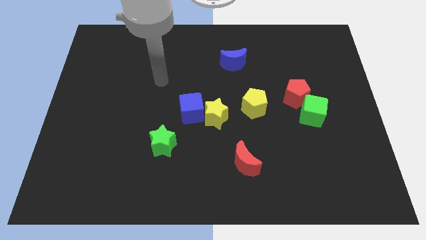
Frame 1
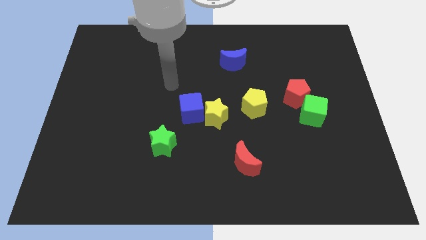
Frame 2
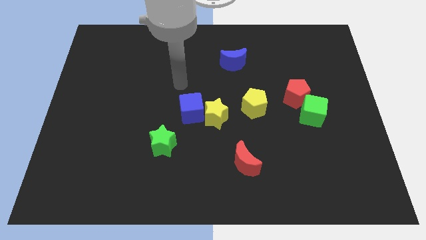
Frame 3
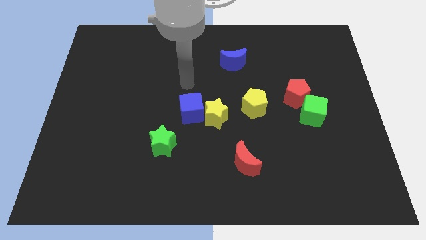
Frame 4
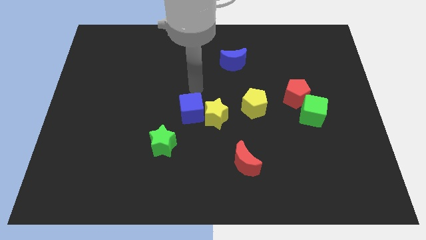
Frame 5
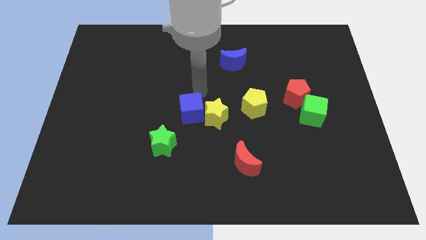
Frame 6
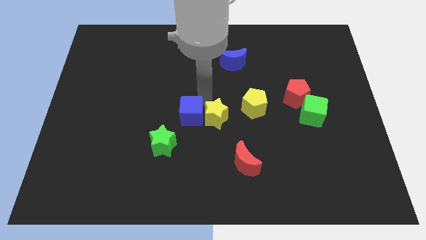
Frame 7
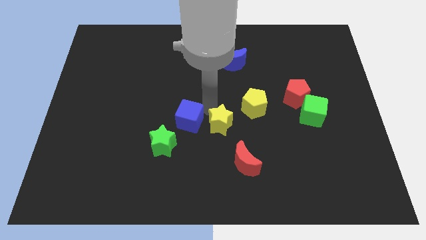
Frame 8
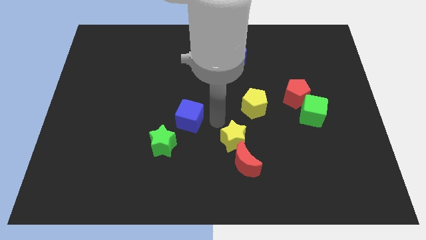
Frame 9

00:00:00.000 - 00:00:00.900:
separate the blue cube from the yellow star

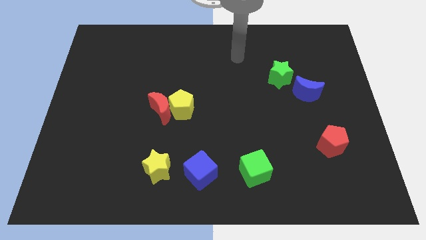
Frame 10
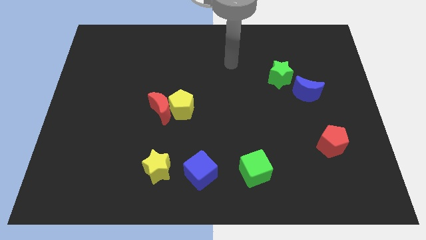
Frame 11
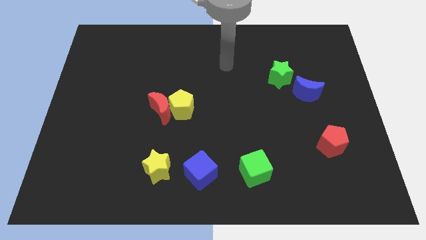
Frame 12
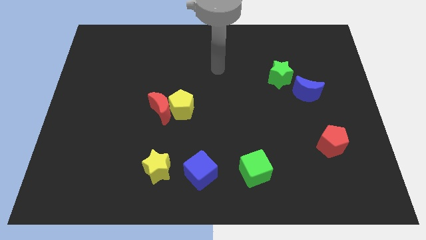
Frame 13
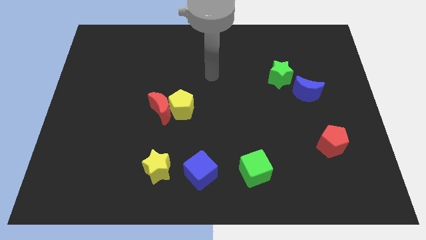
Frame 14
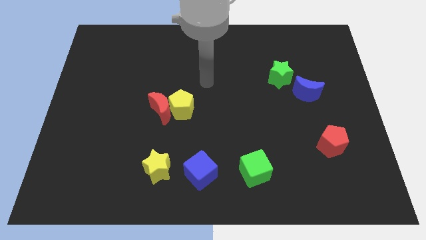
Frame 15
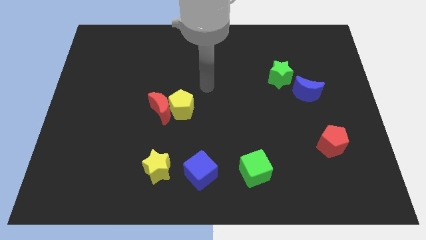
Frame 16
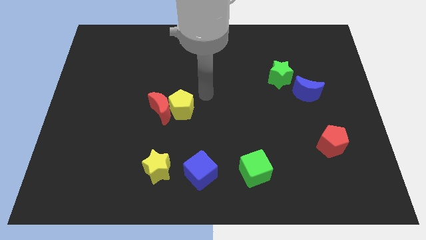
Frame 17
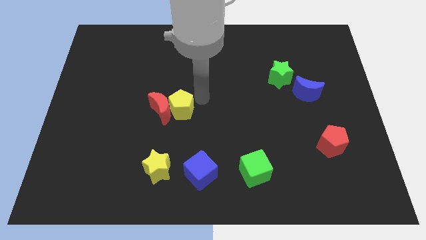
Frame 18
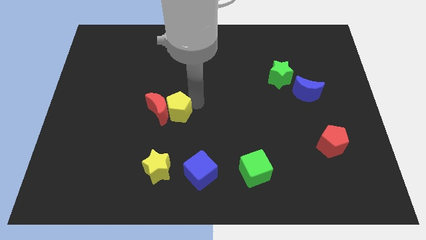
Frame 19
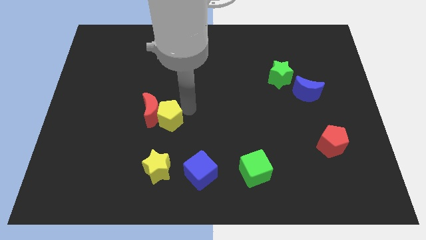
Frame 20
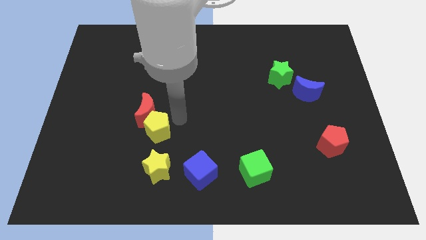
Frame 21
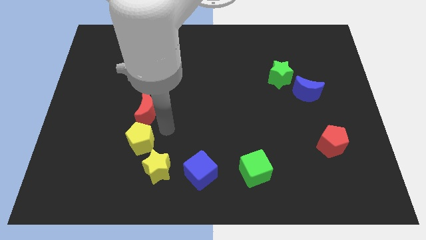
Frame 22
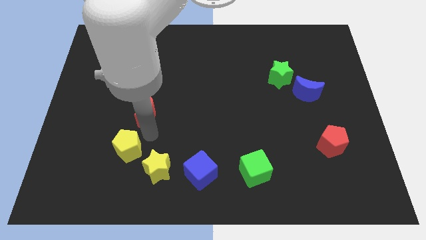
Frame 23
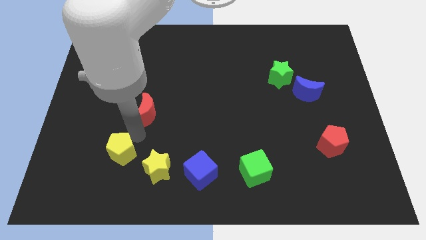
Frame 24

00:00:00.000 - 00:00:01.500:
pull the red moon apart from the yellow pentagon

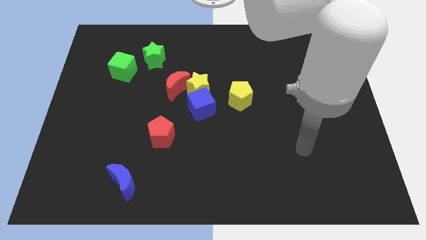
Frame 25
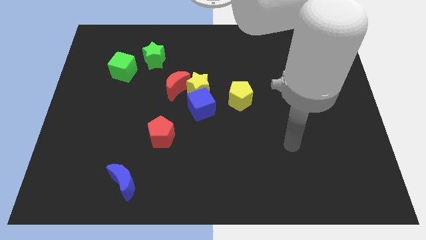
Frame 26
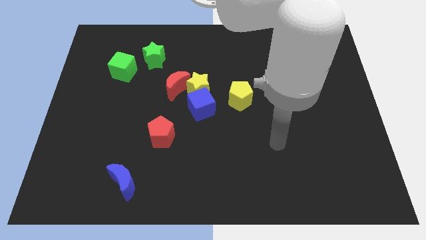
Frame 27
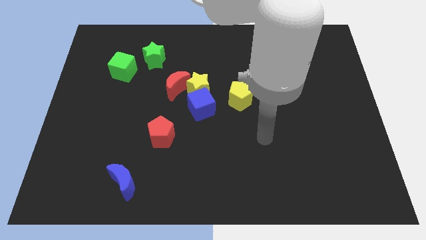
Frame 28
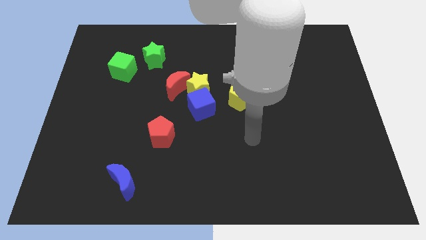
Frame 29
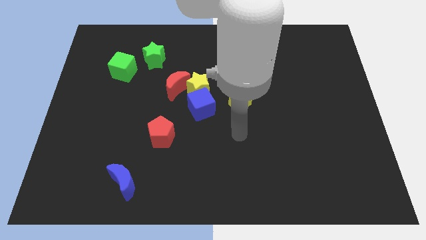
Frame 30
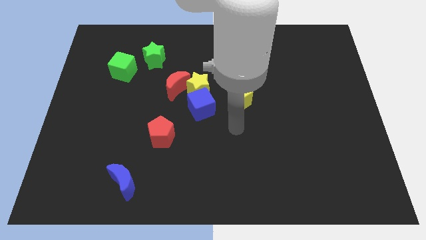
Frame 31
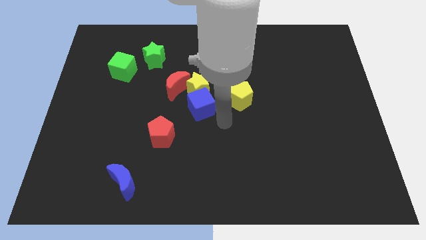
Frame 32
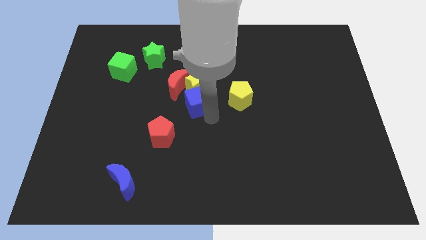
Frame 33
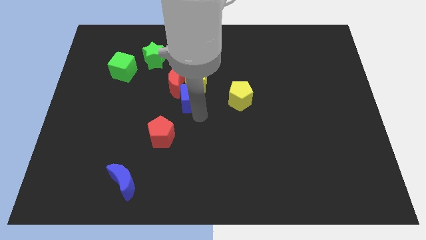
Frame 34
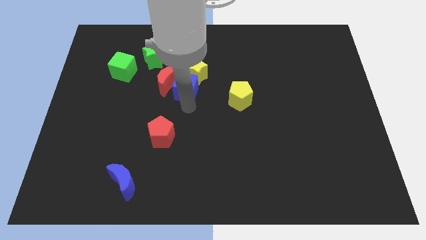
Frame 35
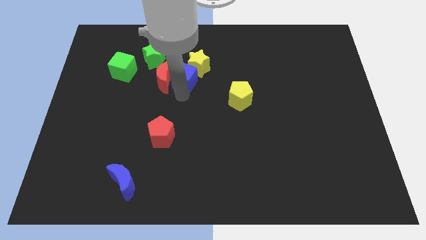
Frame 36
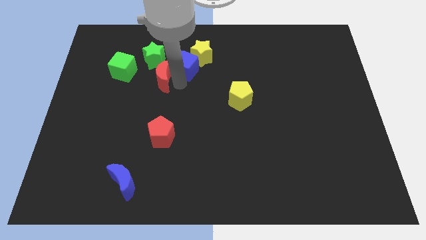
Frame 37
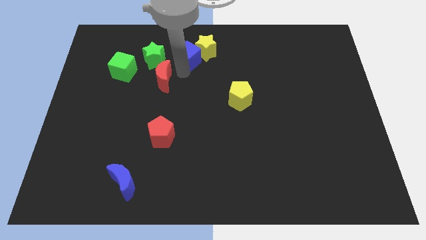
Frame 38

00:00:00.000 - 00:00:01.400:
separate the yellow star from the red moon and blue cube

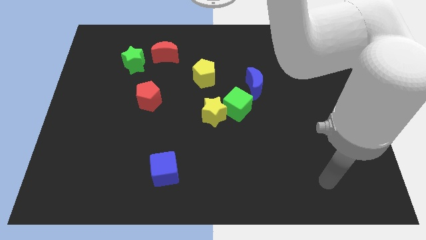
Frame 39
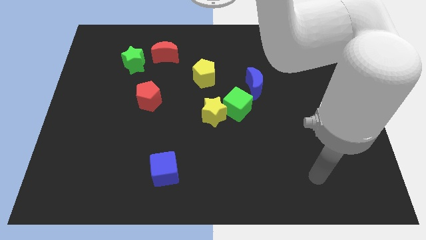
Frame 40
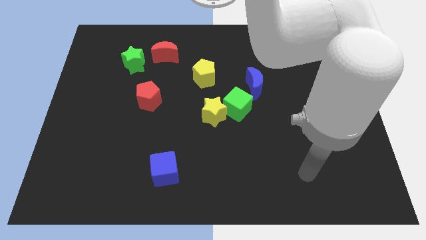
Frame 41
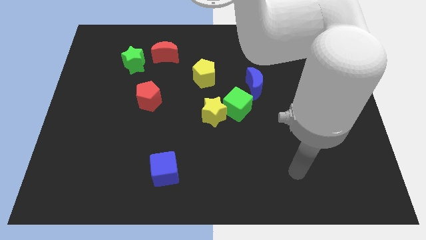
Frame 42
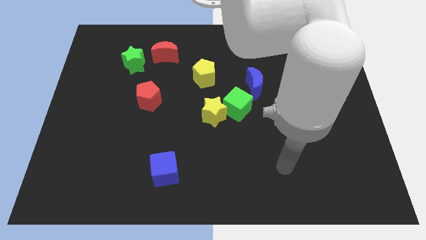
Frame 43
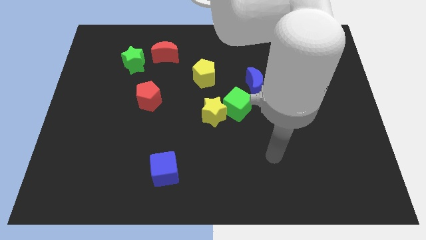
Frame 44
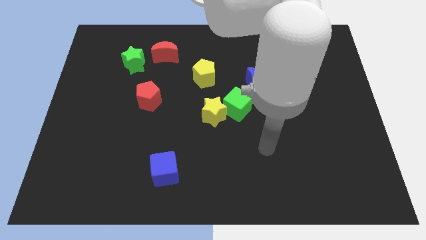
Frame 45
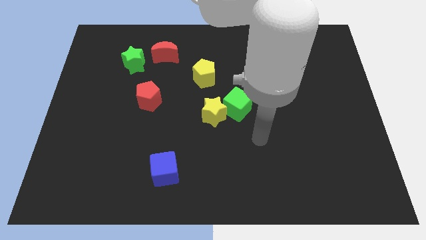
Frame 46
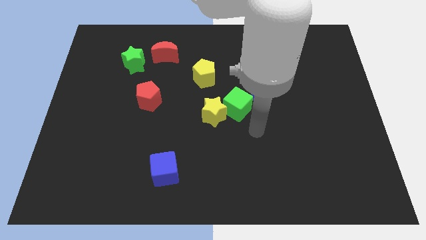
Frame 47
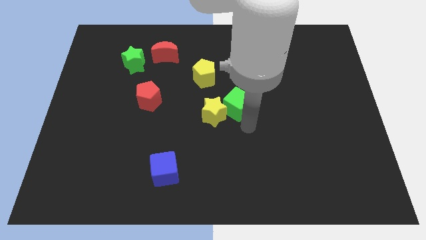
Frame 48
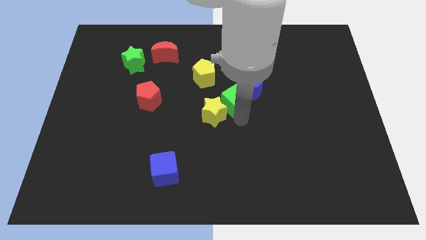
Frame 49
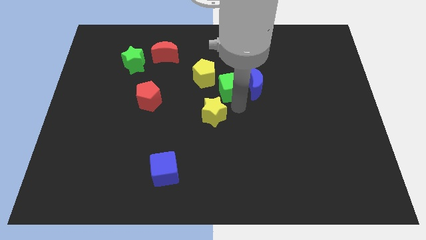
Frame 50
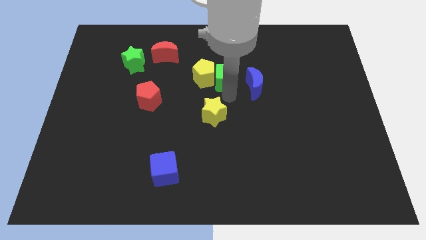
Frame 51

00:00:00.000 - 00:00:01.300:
move the yellow star away from the green cube

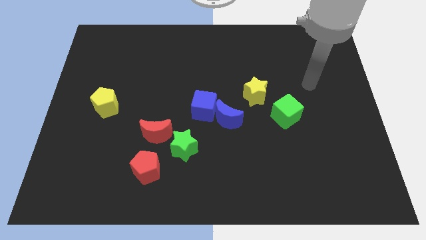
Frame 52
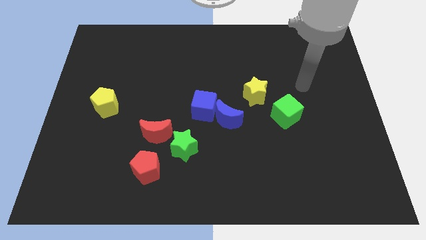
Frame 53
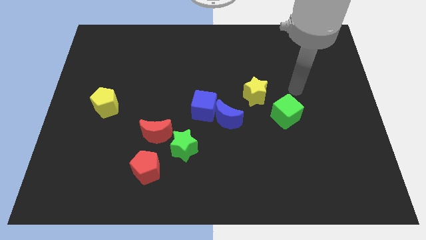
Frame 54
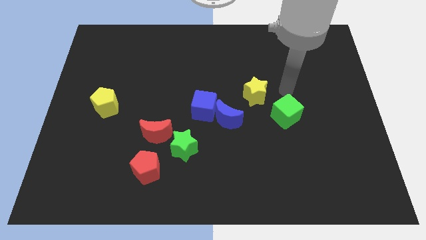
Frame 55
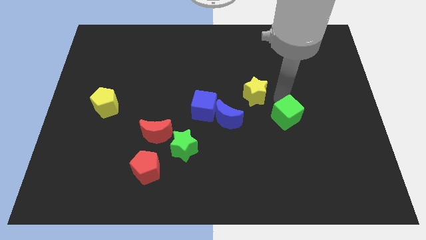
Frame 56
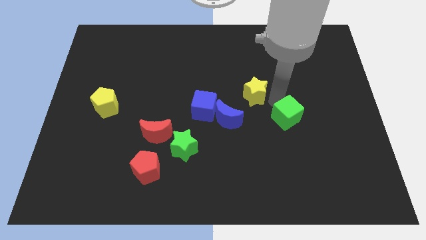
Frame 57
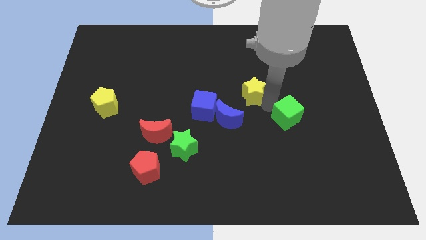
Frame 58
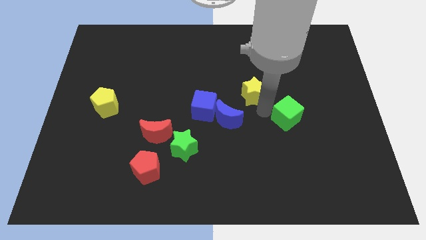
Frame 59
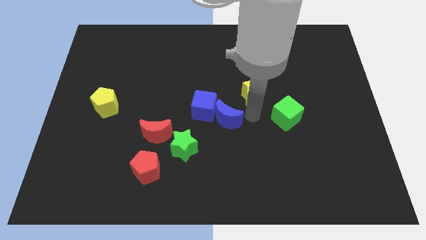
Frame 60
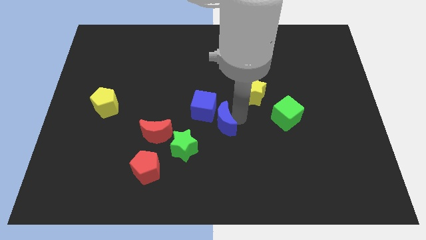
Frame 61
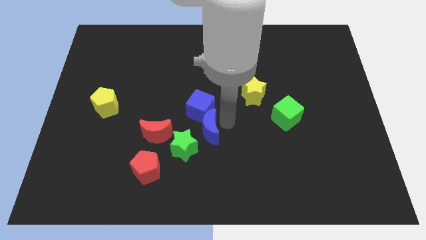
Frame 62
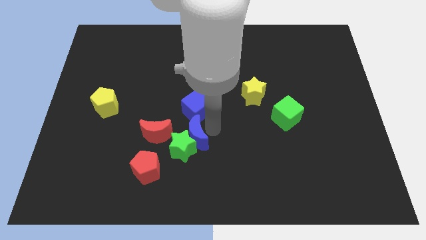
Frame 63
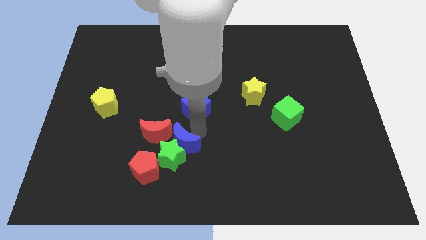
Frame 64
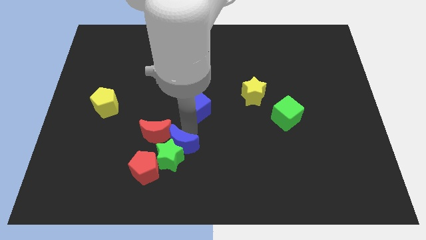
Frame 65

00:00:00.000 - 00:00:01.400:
move the blue cube away from the blue moon

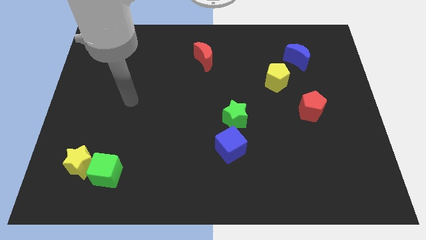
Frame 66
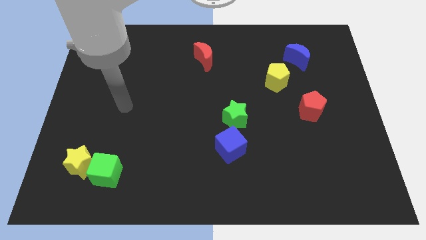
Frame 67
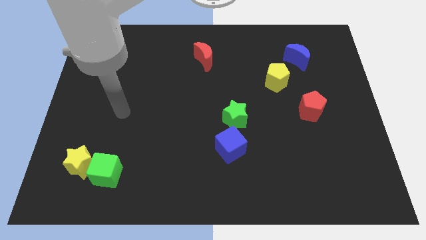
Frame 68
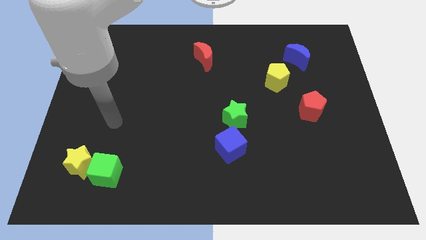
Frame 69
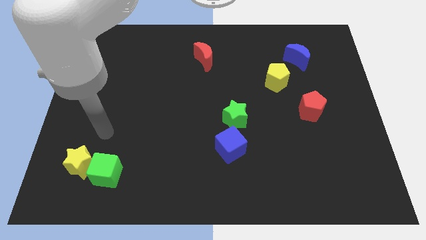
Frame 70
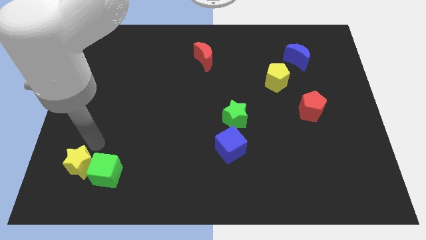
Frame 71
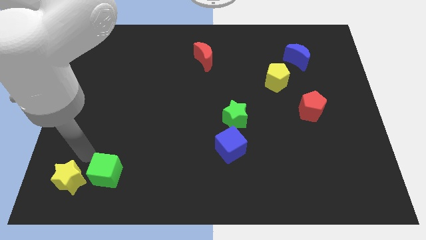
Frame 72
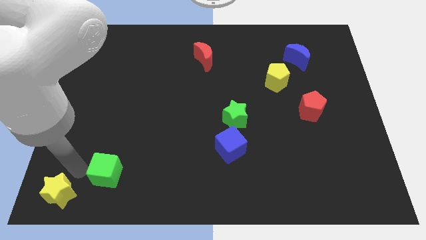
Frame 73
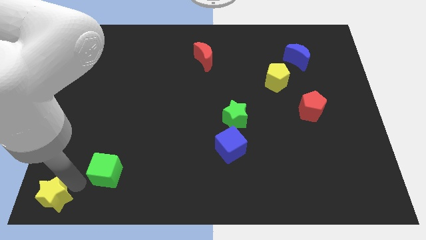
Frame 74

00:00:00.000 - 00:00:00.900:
move the green cube away from the yellow star

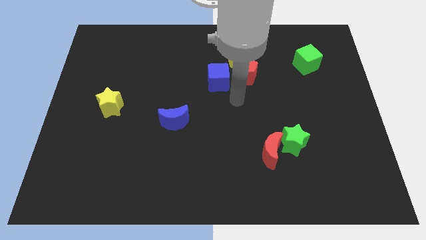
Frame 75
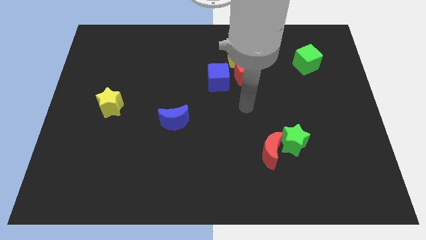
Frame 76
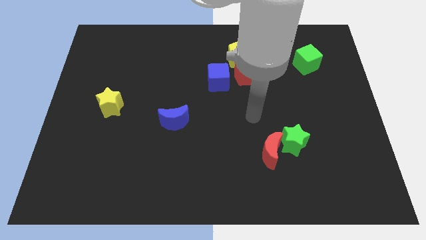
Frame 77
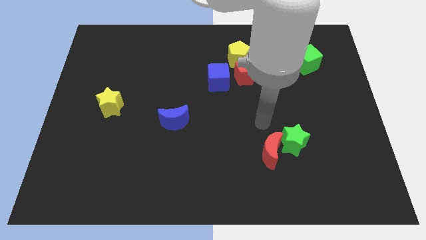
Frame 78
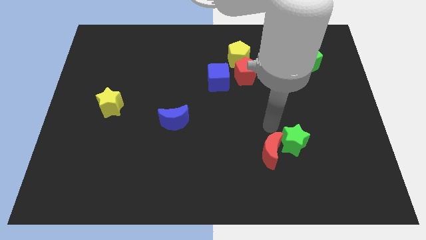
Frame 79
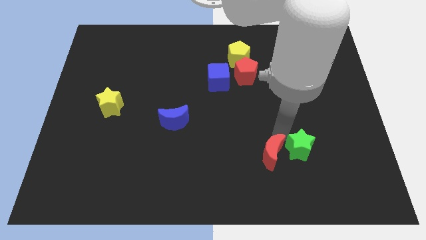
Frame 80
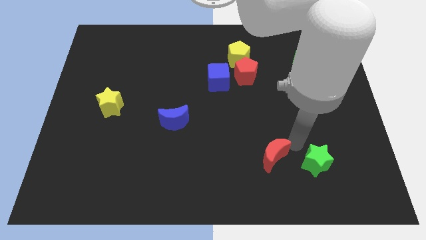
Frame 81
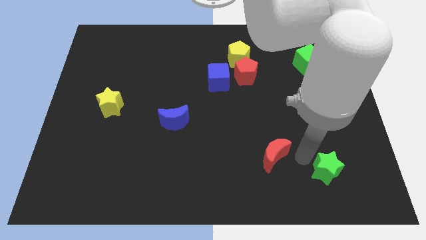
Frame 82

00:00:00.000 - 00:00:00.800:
move the red moon away from the green star

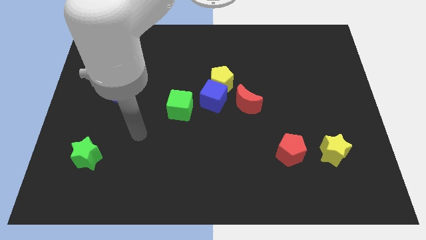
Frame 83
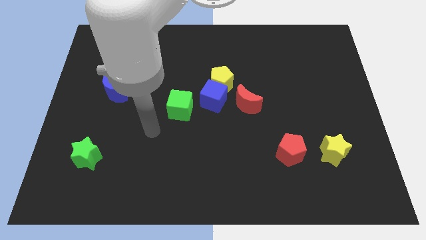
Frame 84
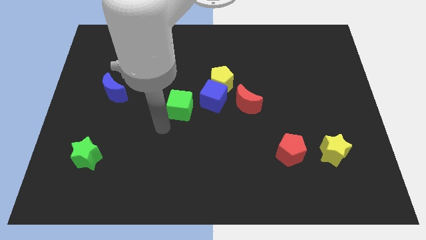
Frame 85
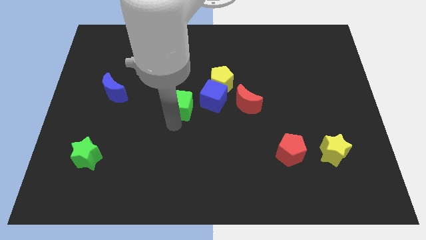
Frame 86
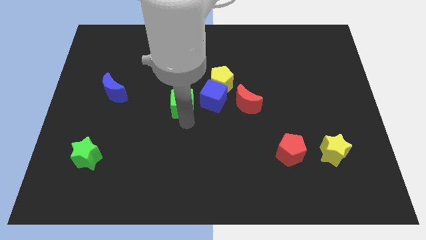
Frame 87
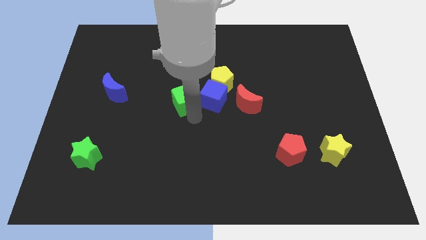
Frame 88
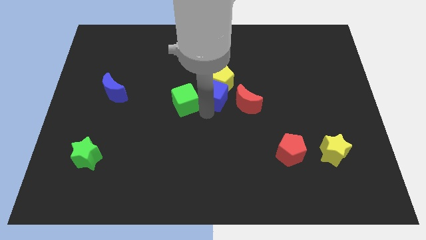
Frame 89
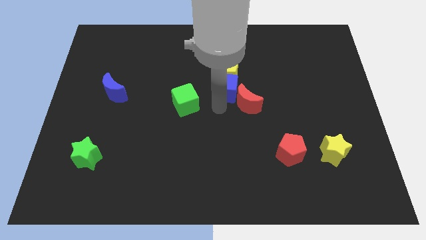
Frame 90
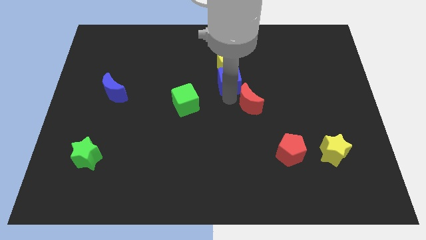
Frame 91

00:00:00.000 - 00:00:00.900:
separate the yellow pentagon from the blue cube and red moon

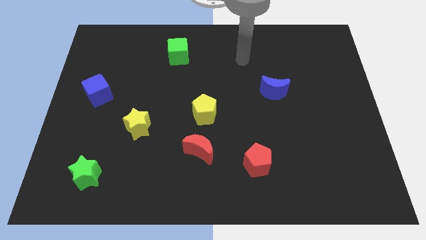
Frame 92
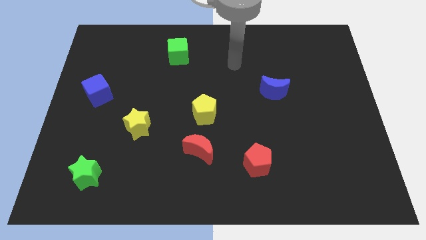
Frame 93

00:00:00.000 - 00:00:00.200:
separate the red moon from the yellow pentagon
